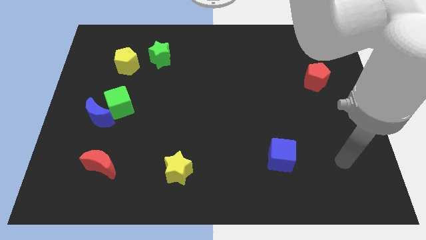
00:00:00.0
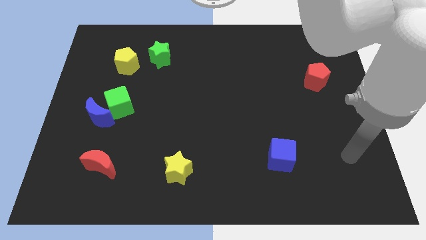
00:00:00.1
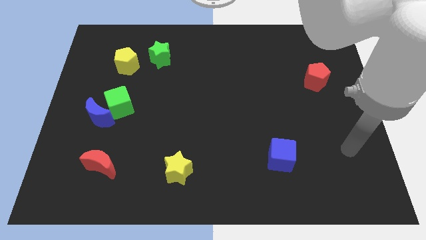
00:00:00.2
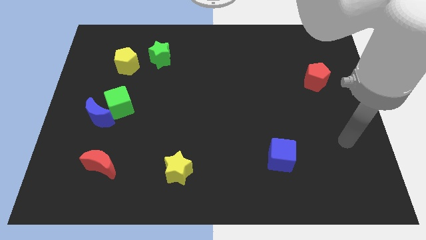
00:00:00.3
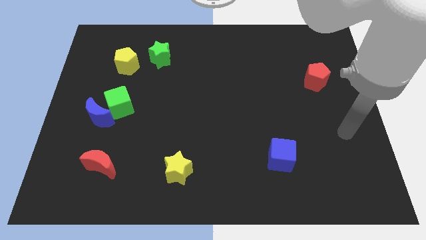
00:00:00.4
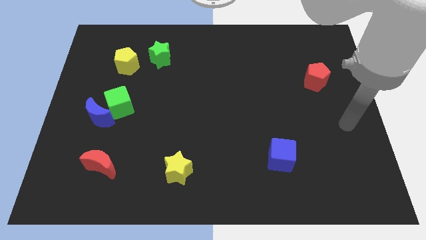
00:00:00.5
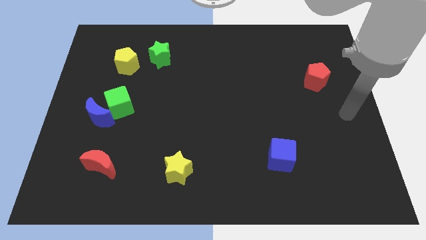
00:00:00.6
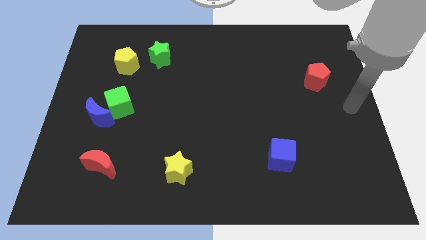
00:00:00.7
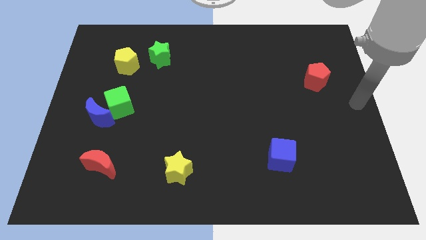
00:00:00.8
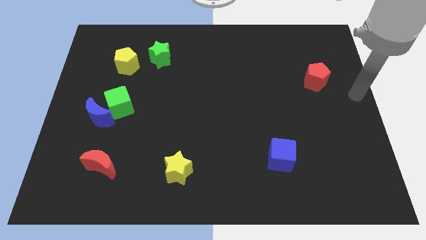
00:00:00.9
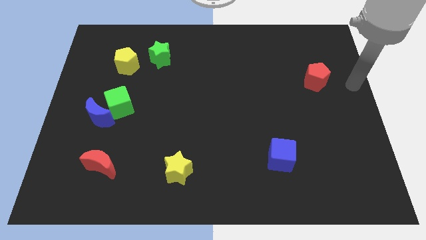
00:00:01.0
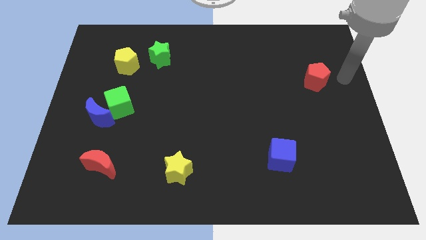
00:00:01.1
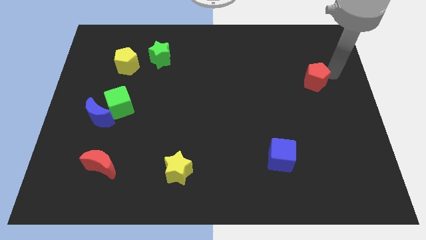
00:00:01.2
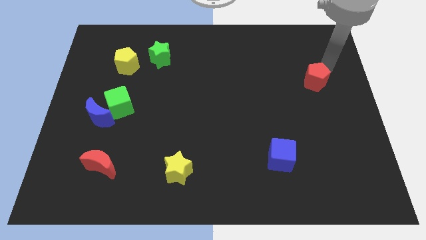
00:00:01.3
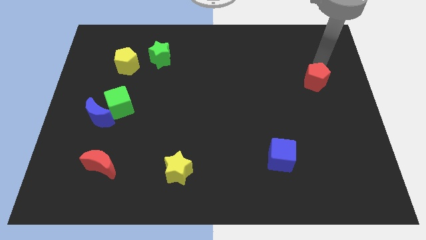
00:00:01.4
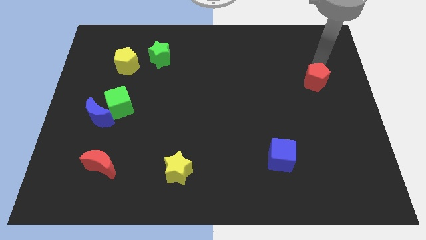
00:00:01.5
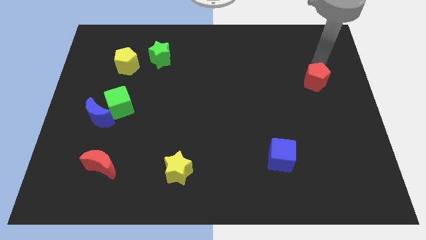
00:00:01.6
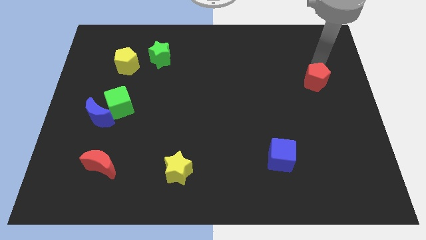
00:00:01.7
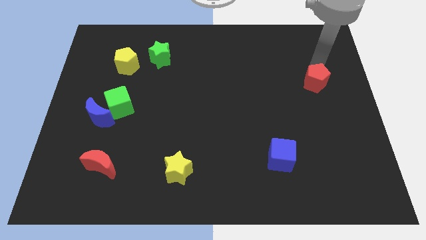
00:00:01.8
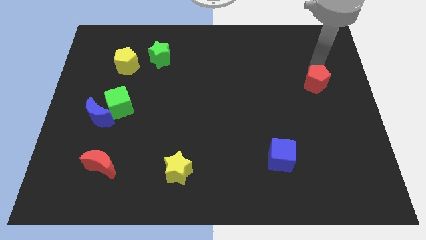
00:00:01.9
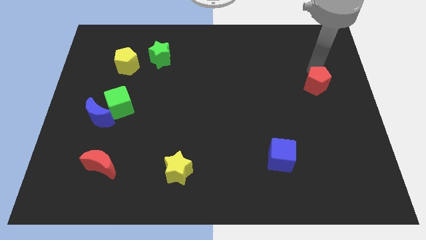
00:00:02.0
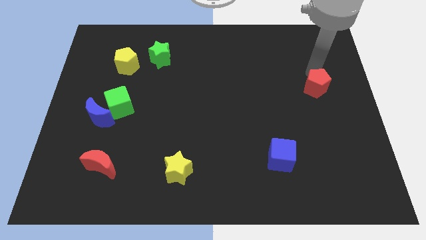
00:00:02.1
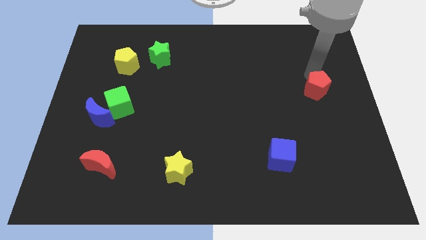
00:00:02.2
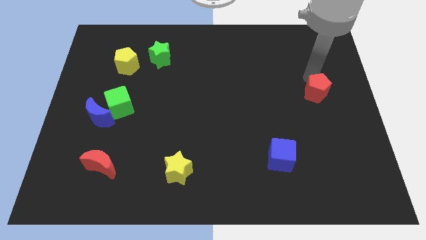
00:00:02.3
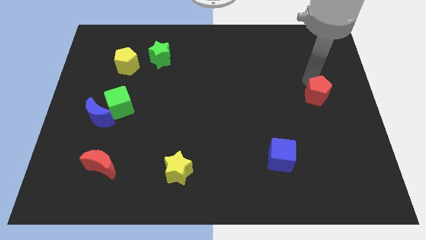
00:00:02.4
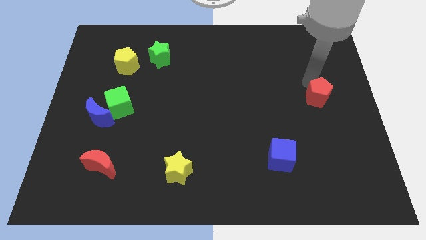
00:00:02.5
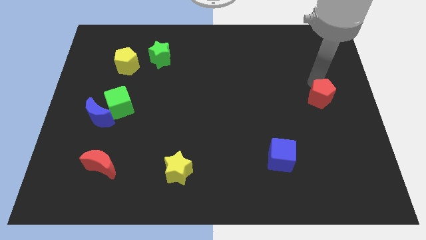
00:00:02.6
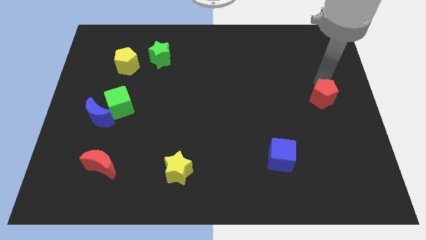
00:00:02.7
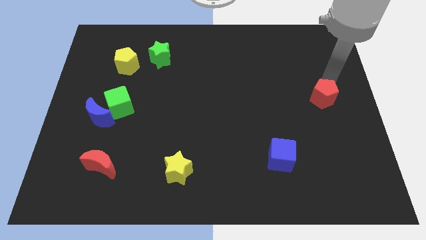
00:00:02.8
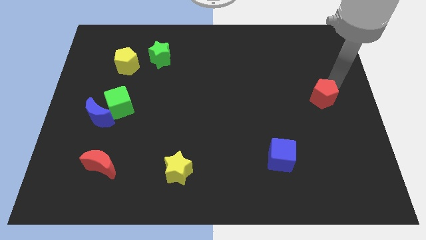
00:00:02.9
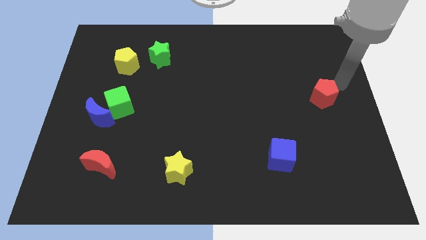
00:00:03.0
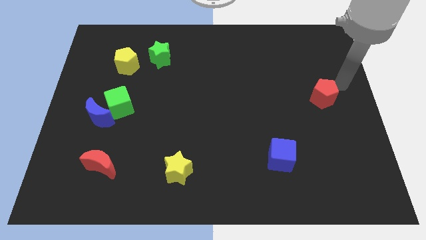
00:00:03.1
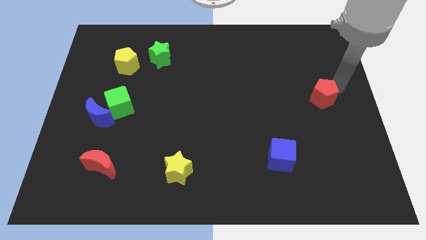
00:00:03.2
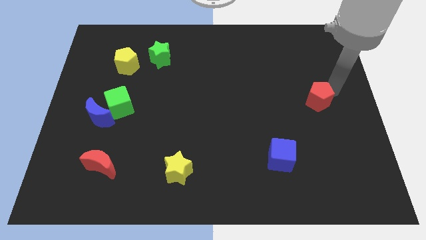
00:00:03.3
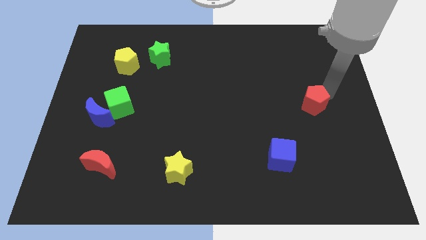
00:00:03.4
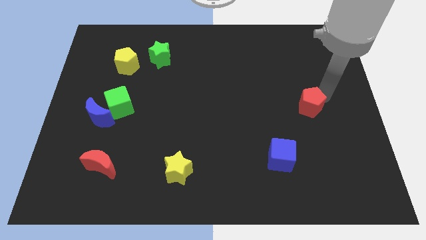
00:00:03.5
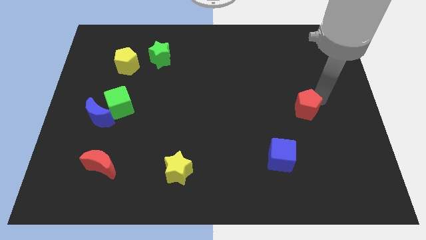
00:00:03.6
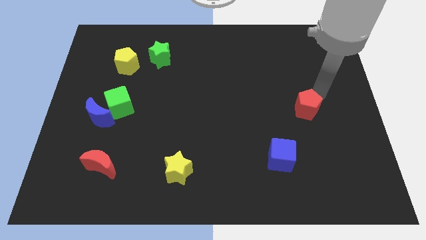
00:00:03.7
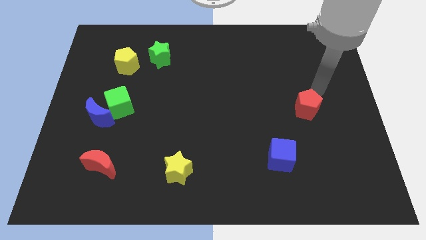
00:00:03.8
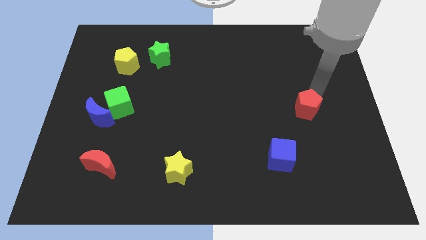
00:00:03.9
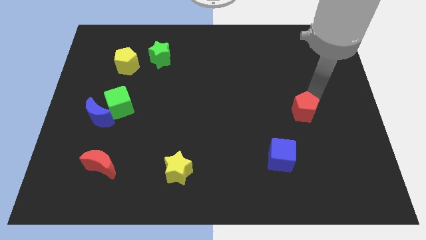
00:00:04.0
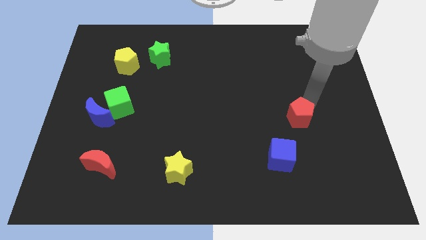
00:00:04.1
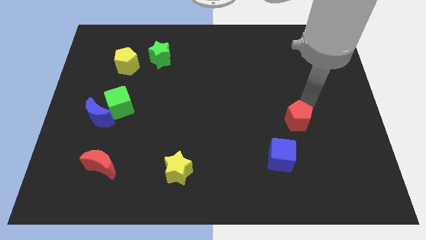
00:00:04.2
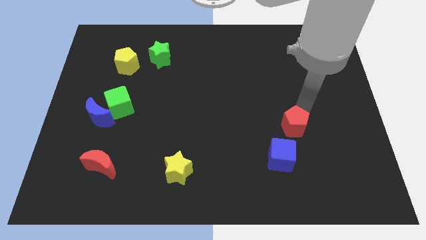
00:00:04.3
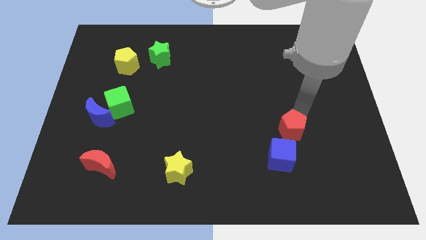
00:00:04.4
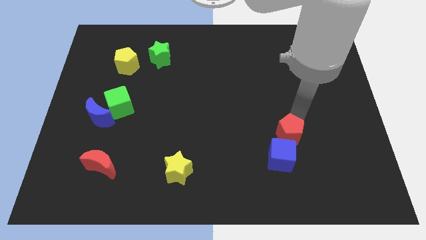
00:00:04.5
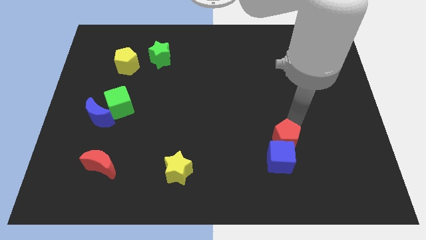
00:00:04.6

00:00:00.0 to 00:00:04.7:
put the red pentagon towards the blue cube

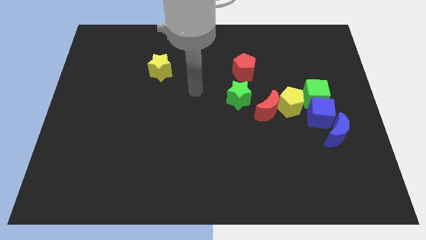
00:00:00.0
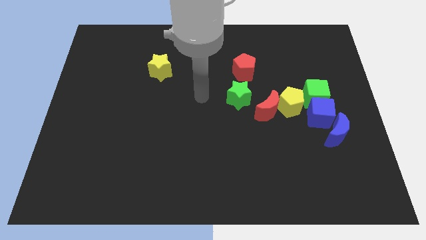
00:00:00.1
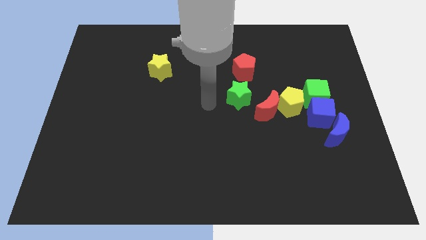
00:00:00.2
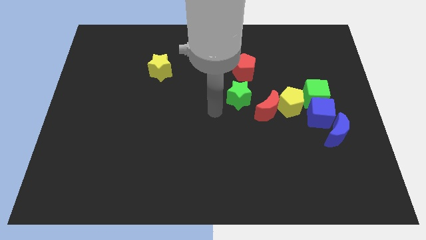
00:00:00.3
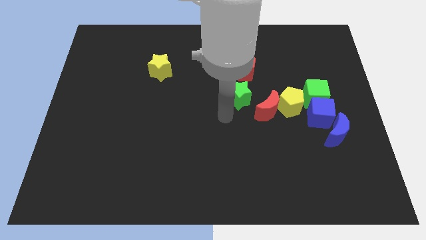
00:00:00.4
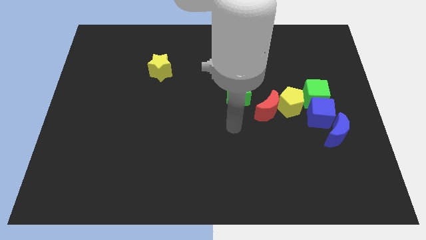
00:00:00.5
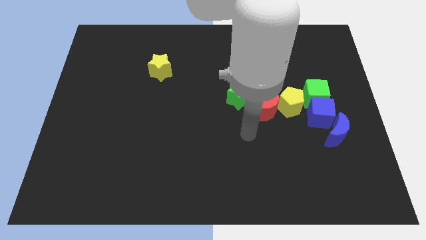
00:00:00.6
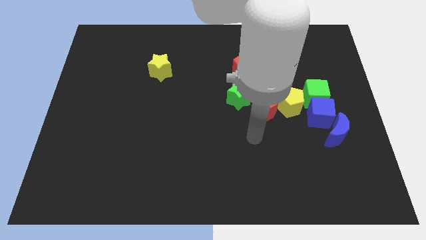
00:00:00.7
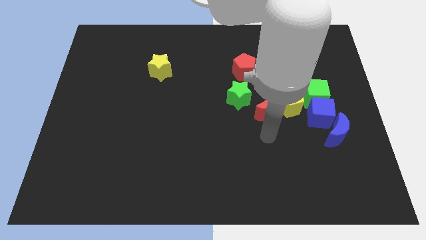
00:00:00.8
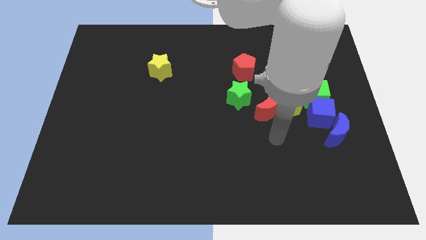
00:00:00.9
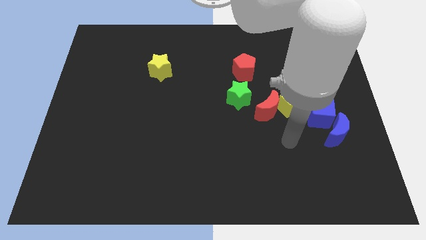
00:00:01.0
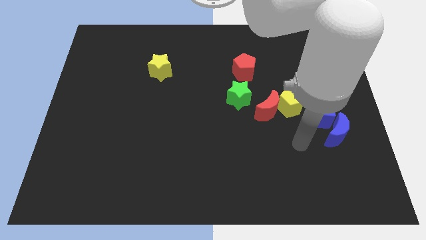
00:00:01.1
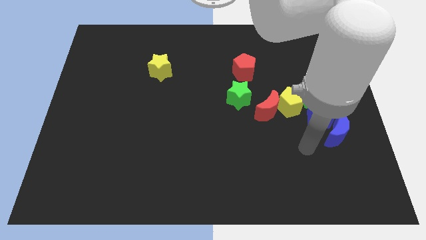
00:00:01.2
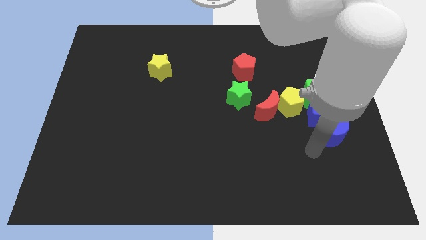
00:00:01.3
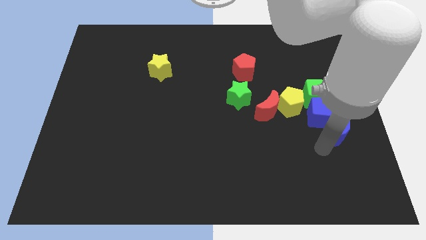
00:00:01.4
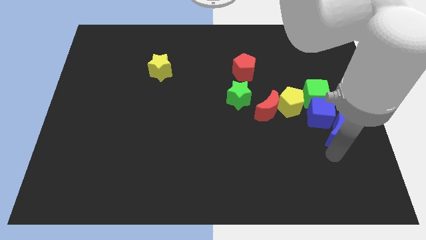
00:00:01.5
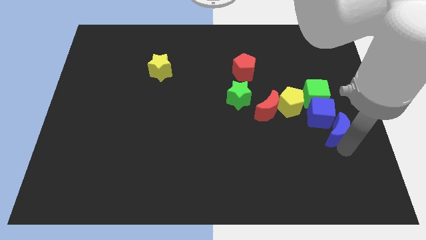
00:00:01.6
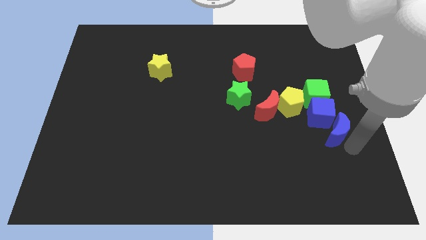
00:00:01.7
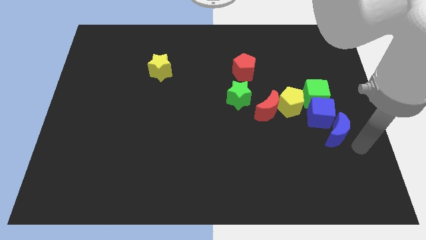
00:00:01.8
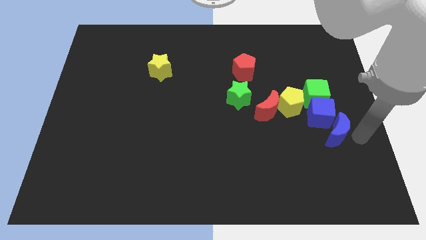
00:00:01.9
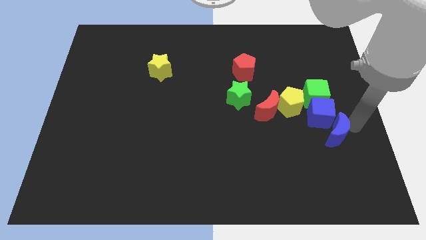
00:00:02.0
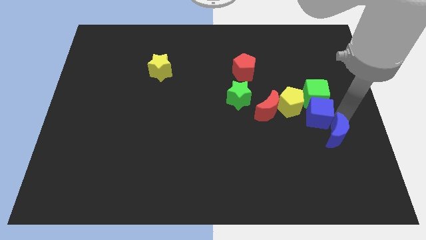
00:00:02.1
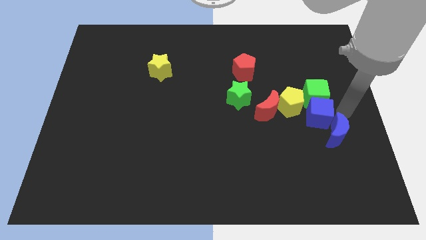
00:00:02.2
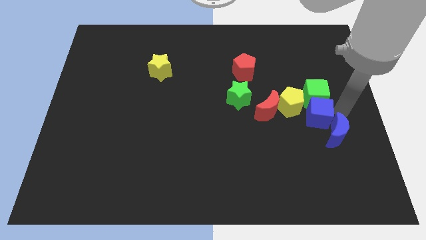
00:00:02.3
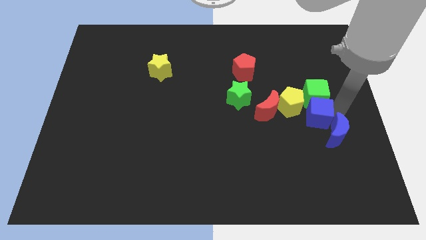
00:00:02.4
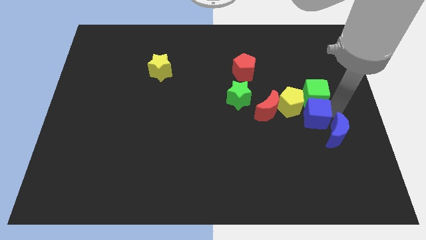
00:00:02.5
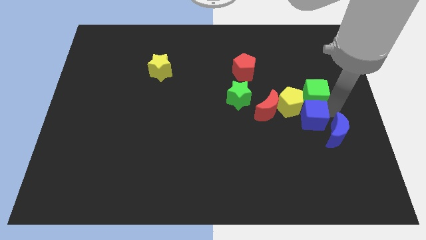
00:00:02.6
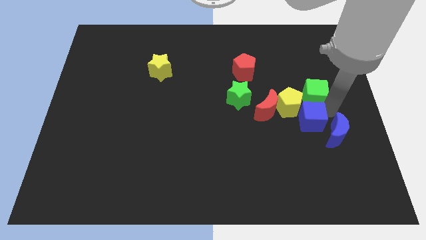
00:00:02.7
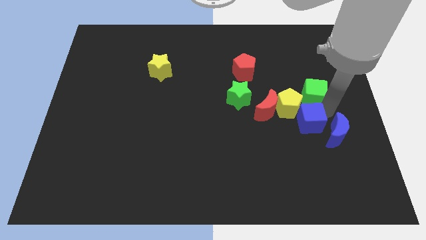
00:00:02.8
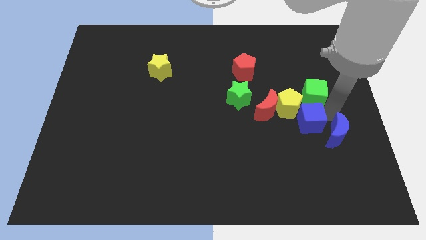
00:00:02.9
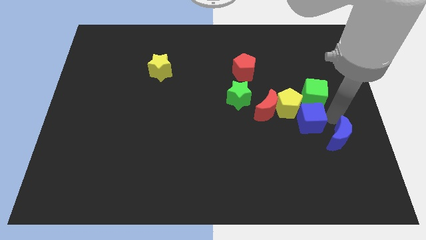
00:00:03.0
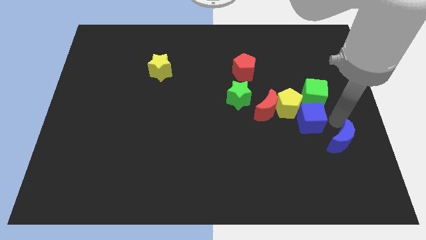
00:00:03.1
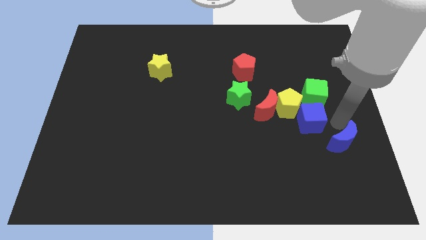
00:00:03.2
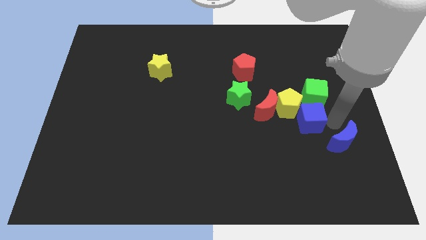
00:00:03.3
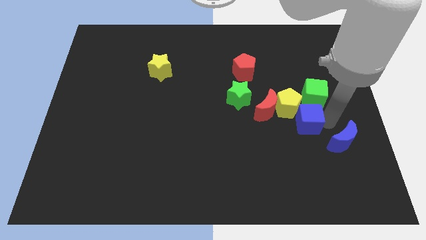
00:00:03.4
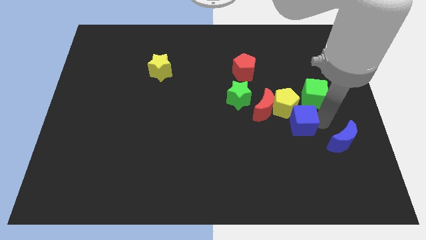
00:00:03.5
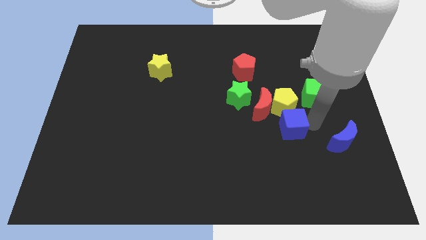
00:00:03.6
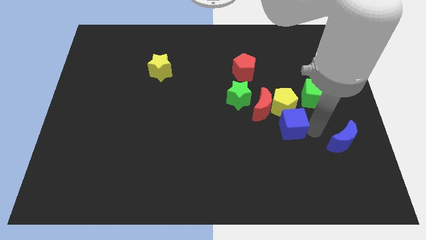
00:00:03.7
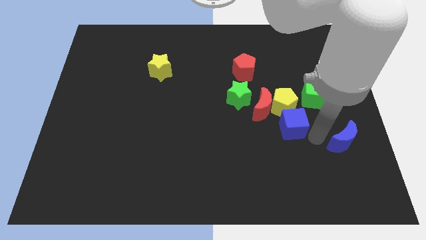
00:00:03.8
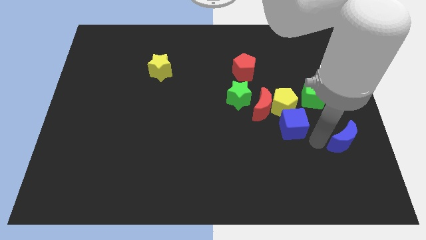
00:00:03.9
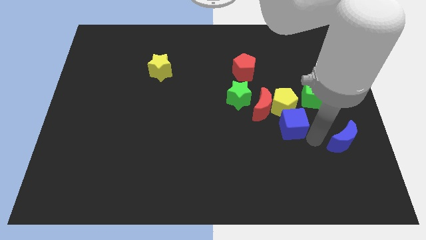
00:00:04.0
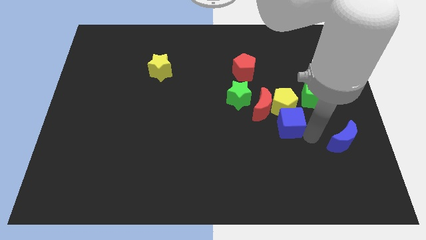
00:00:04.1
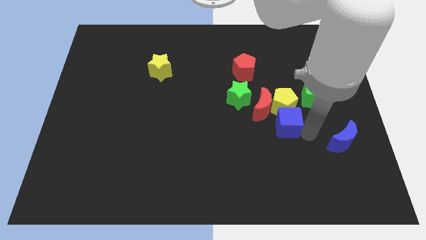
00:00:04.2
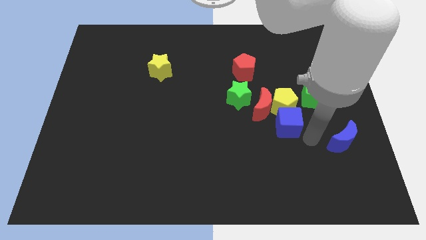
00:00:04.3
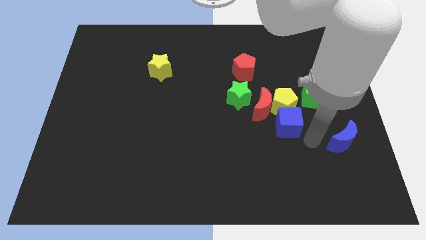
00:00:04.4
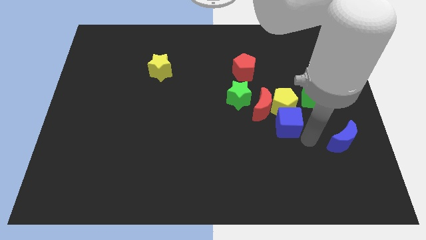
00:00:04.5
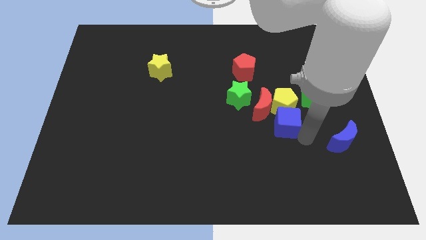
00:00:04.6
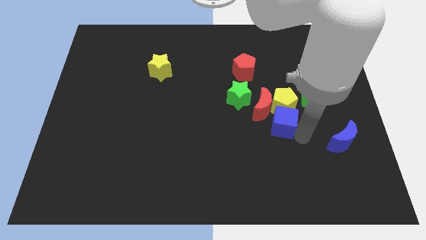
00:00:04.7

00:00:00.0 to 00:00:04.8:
push the blue cube next to the red moon
